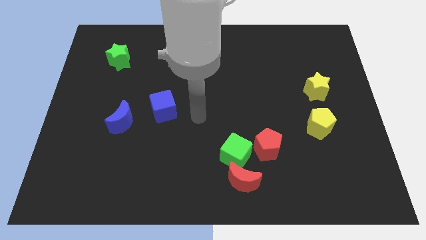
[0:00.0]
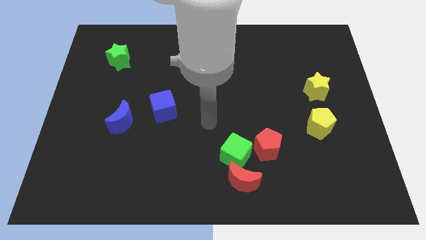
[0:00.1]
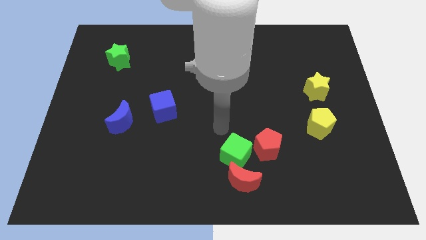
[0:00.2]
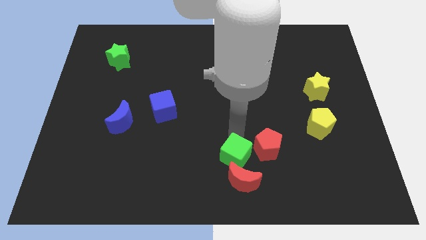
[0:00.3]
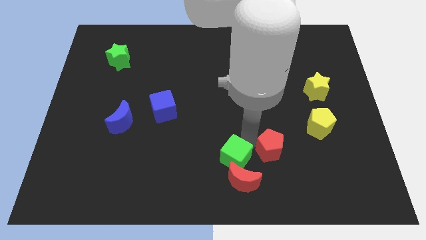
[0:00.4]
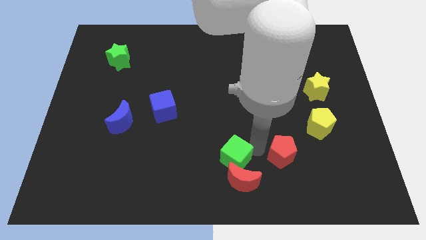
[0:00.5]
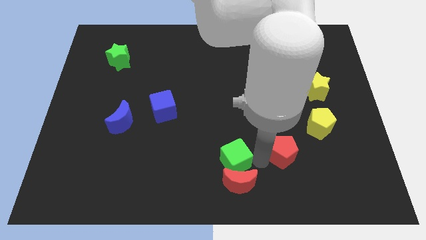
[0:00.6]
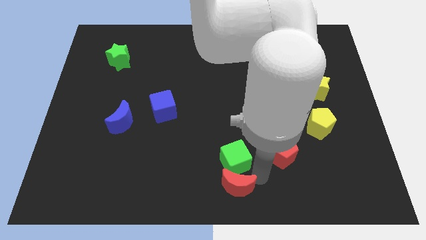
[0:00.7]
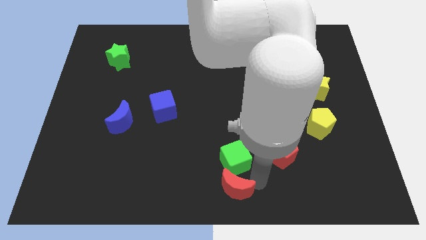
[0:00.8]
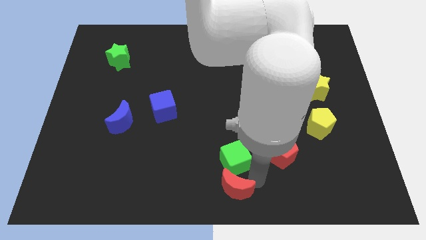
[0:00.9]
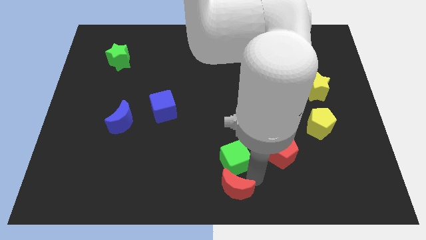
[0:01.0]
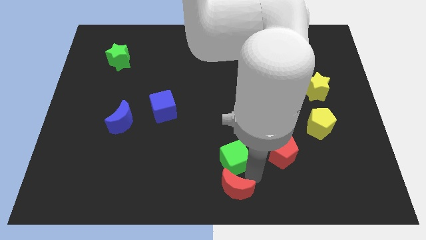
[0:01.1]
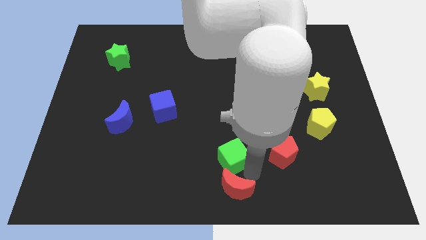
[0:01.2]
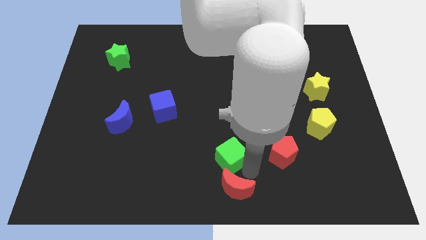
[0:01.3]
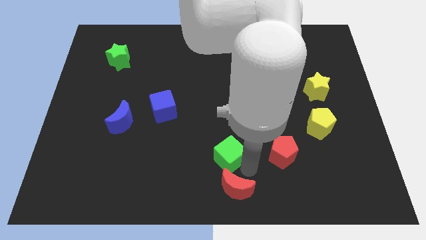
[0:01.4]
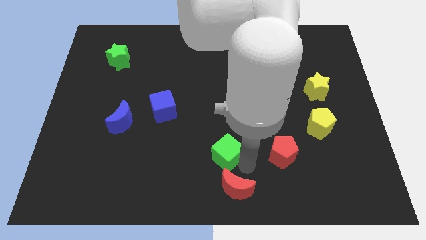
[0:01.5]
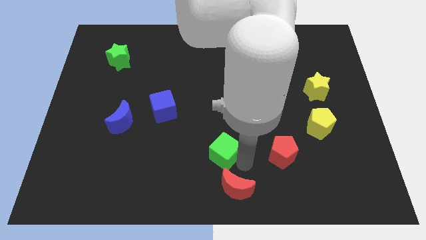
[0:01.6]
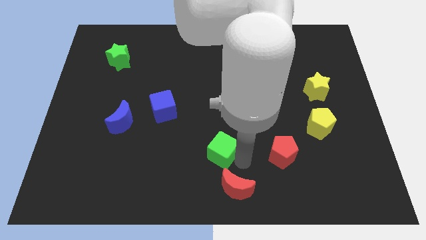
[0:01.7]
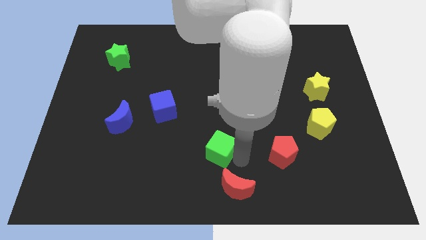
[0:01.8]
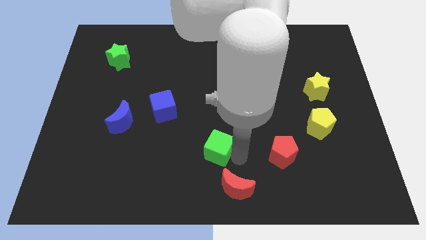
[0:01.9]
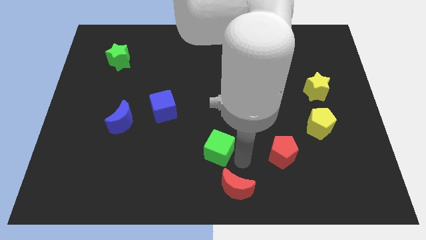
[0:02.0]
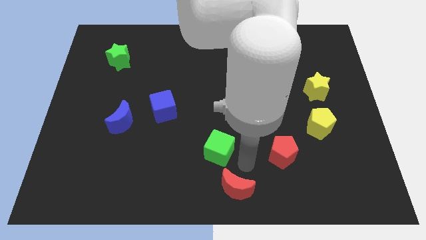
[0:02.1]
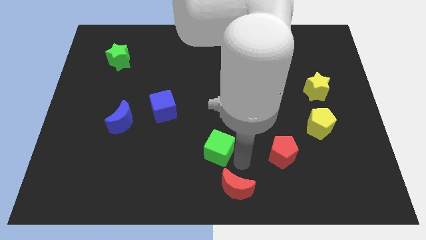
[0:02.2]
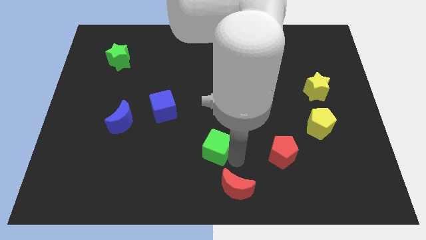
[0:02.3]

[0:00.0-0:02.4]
pull the green cube apart from the red moon and red pentagon

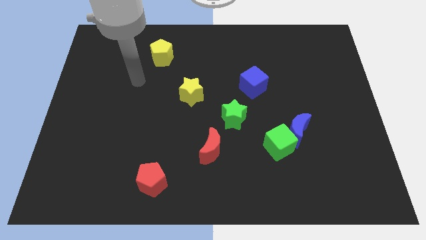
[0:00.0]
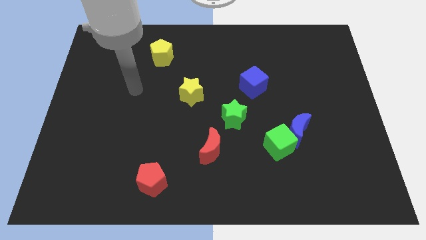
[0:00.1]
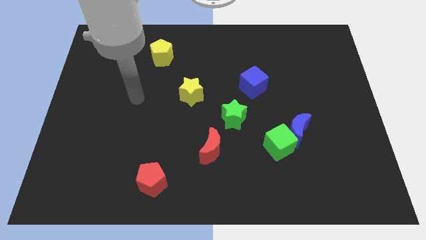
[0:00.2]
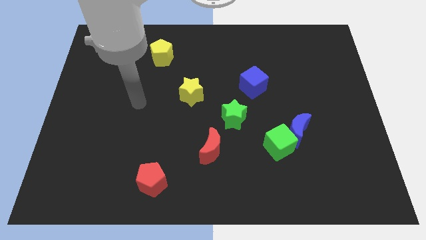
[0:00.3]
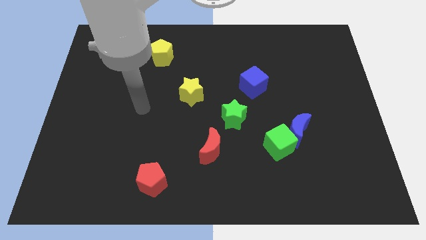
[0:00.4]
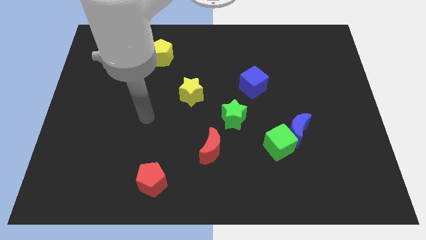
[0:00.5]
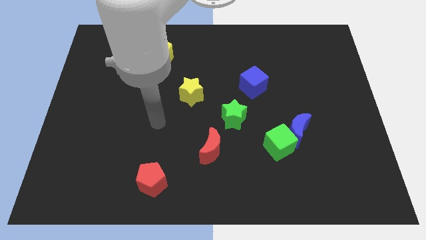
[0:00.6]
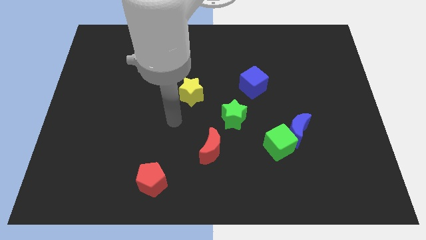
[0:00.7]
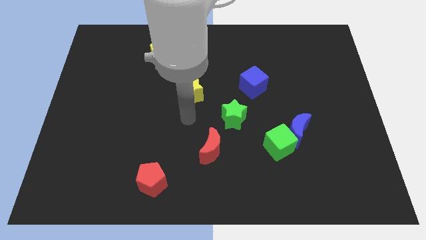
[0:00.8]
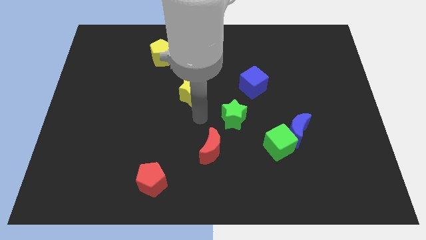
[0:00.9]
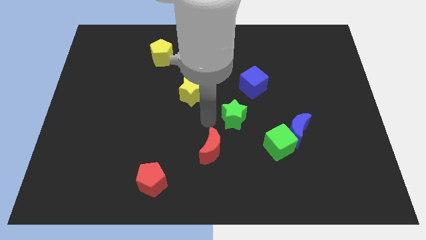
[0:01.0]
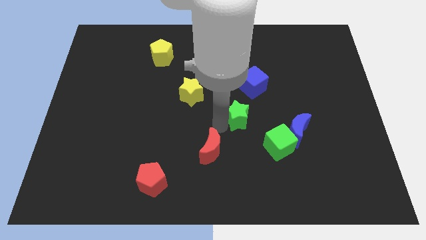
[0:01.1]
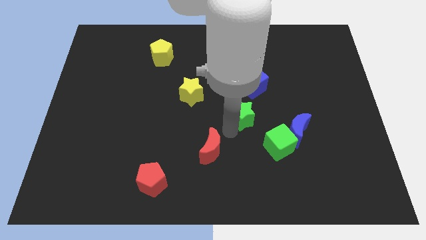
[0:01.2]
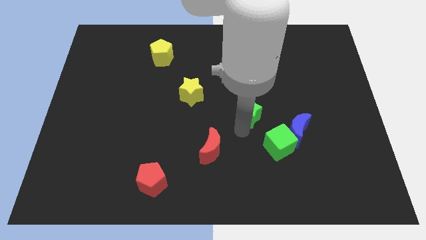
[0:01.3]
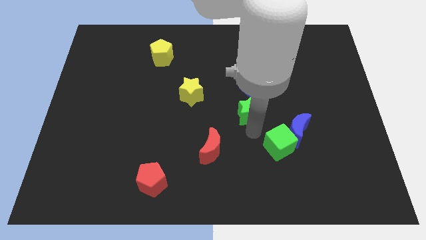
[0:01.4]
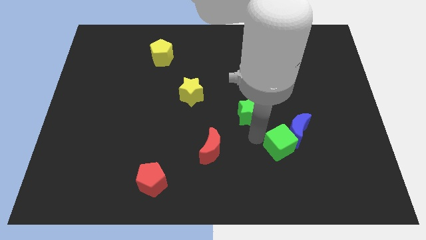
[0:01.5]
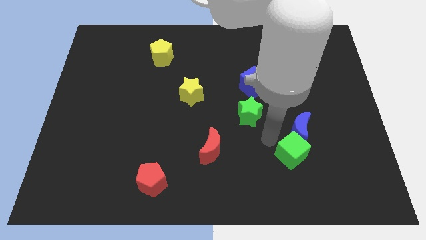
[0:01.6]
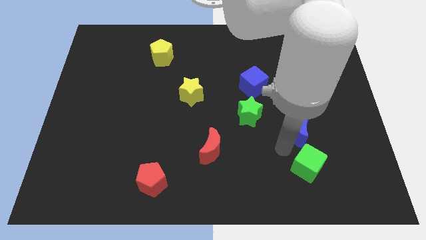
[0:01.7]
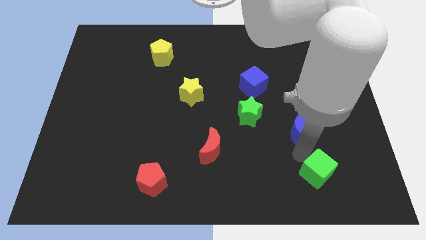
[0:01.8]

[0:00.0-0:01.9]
move the blue moon away from the green cube

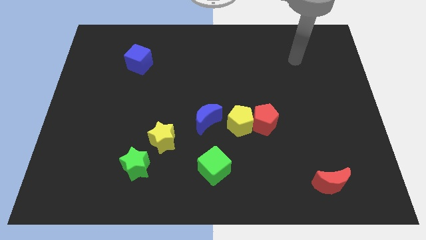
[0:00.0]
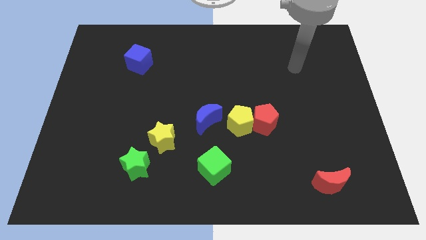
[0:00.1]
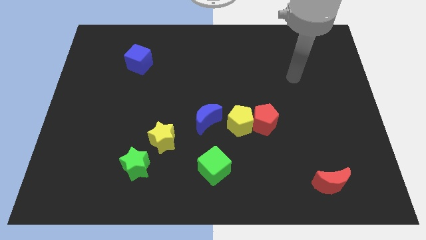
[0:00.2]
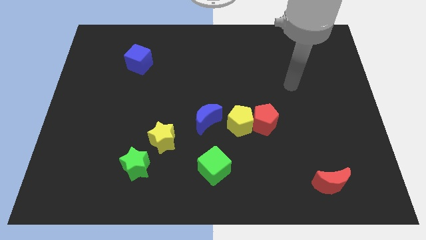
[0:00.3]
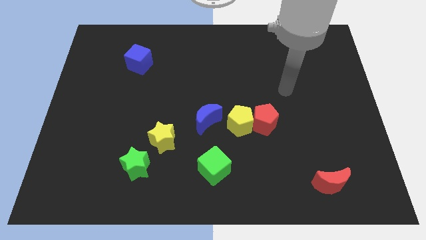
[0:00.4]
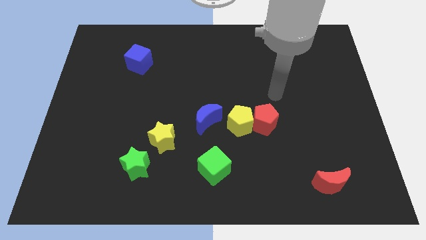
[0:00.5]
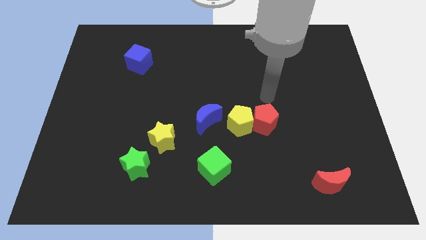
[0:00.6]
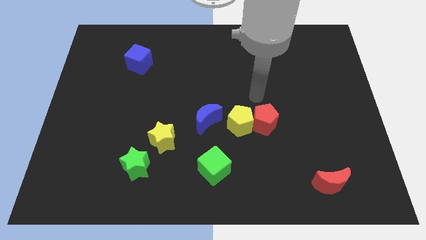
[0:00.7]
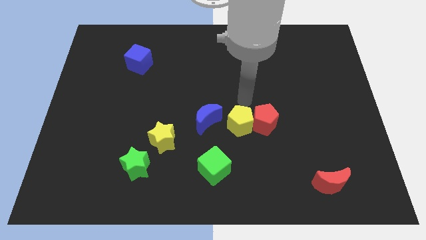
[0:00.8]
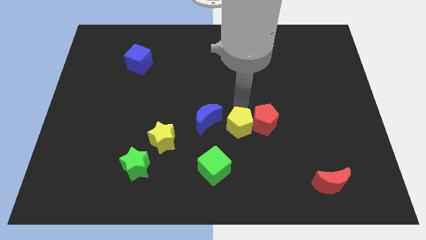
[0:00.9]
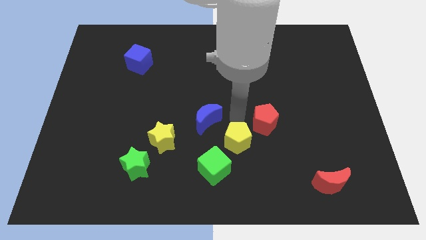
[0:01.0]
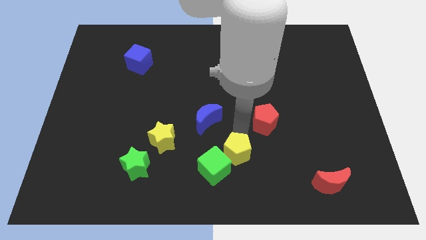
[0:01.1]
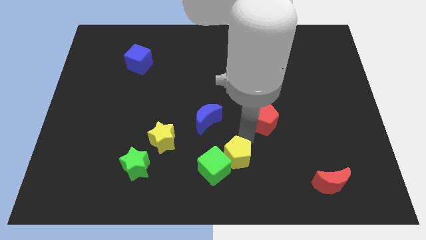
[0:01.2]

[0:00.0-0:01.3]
pull the red pentagon apart from the yellow pentagon

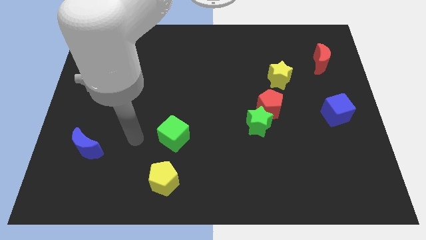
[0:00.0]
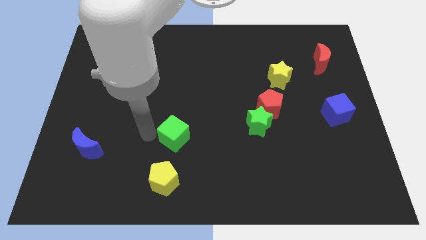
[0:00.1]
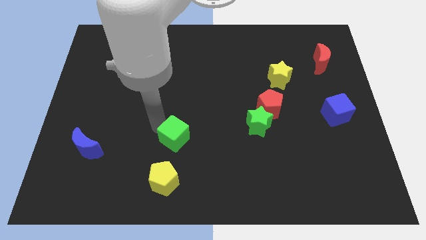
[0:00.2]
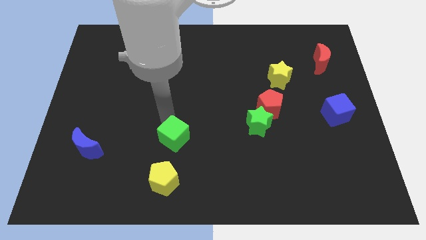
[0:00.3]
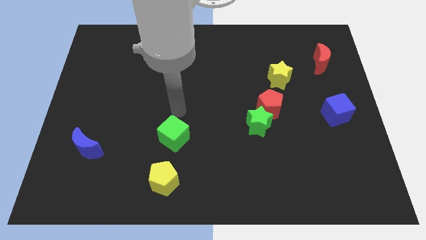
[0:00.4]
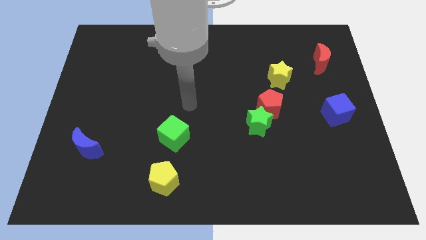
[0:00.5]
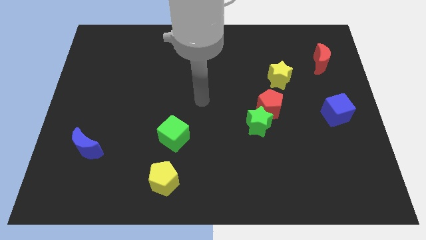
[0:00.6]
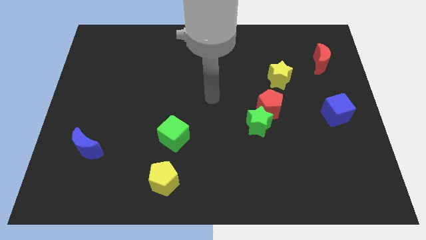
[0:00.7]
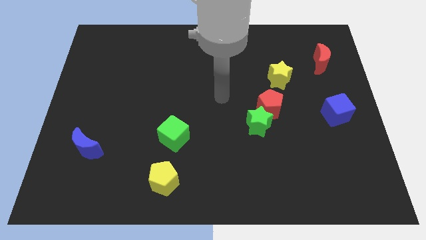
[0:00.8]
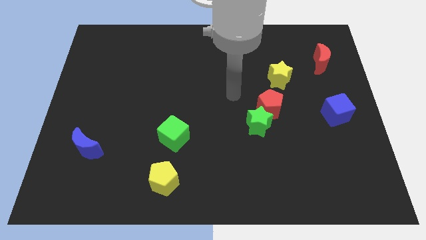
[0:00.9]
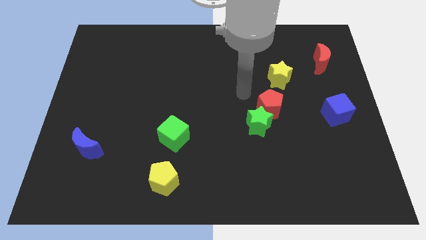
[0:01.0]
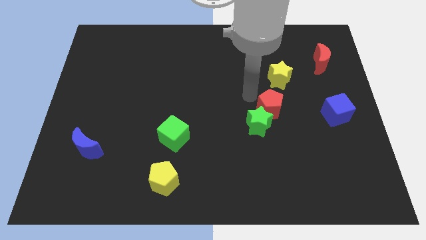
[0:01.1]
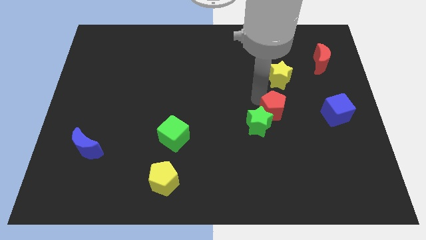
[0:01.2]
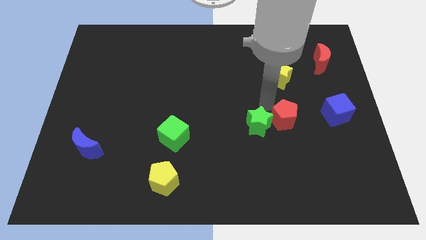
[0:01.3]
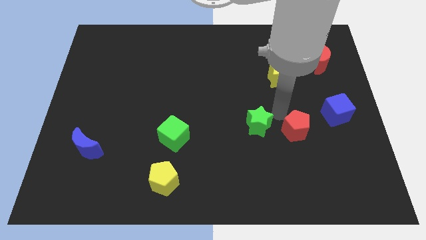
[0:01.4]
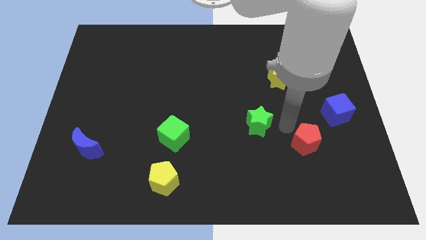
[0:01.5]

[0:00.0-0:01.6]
pull the green star apart from the red pentagon

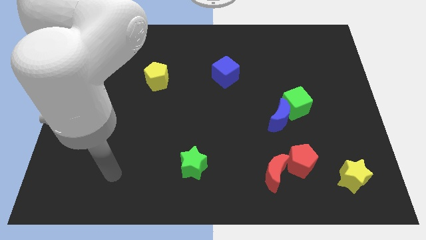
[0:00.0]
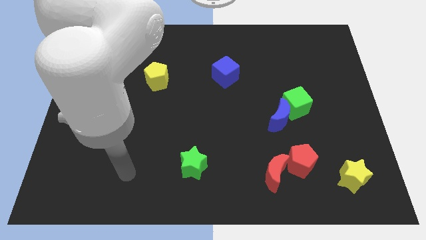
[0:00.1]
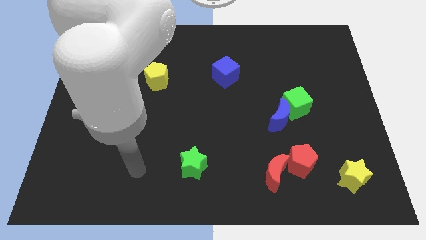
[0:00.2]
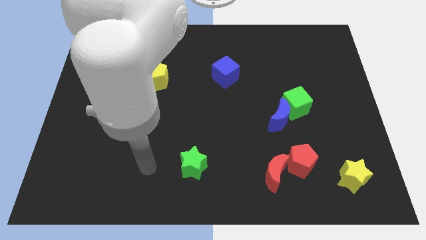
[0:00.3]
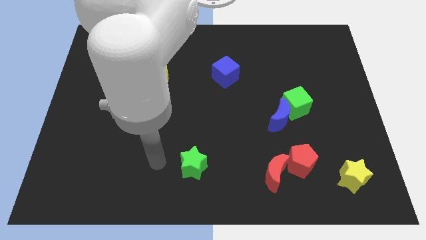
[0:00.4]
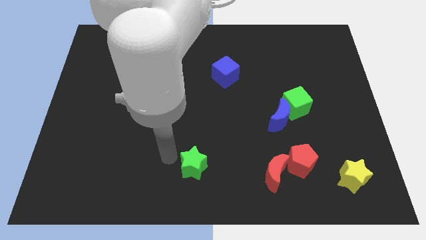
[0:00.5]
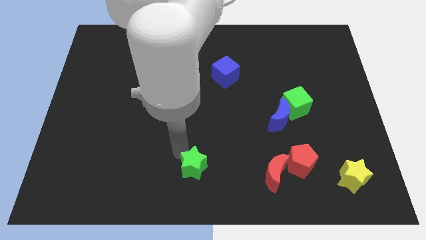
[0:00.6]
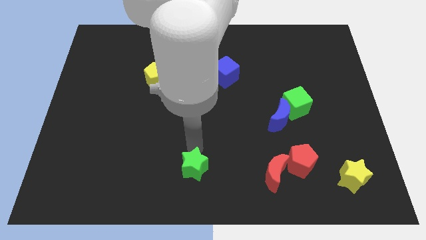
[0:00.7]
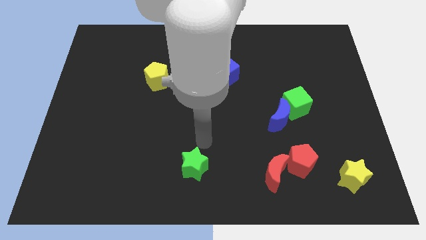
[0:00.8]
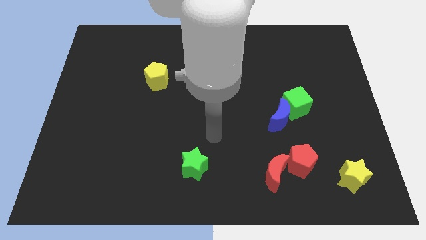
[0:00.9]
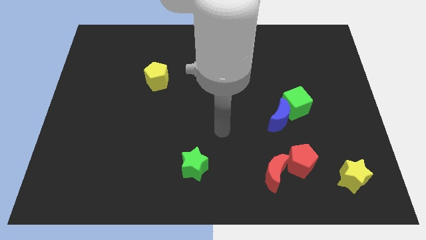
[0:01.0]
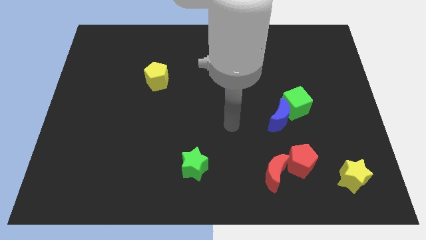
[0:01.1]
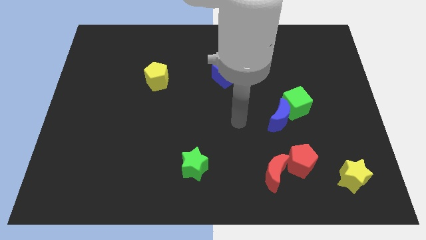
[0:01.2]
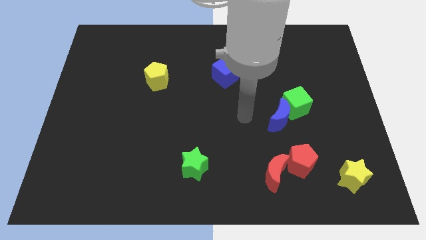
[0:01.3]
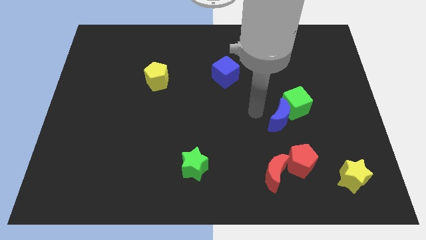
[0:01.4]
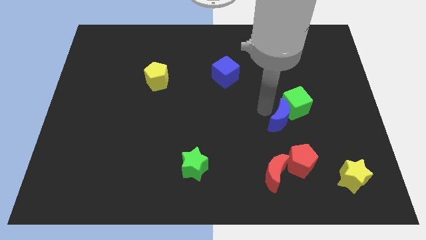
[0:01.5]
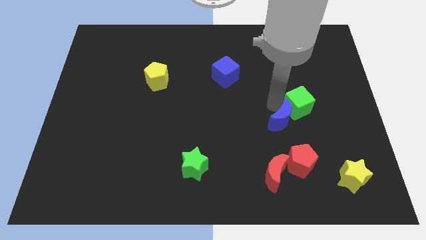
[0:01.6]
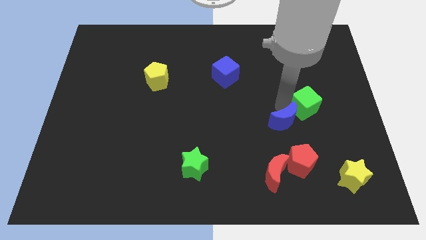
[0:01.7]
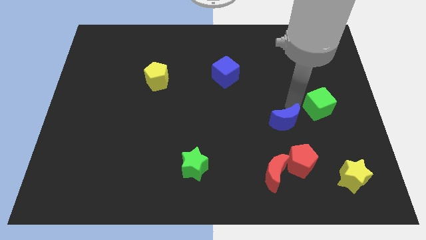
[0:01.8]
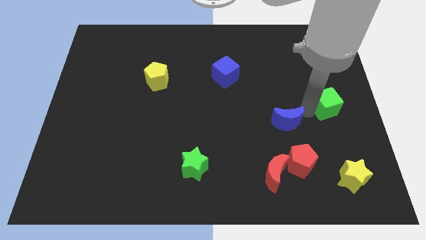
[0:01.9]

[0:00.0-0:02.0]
separate the blue moon from the green cube

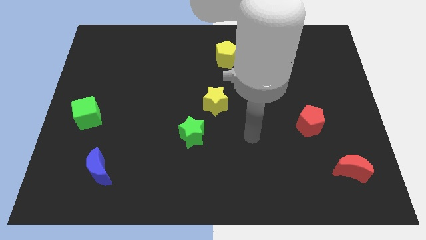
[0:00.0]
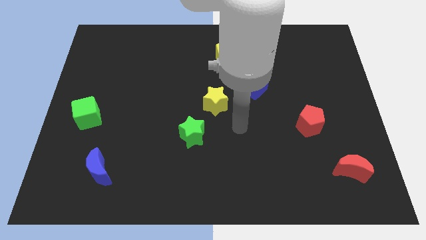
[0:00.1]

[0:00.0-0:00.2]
move the green star away from the yellow star
